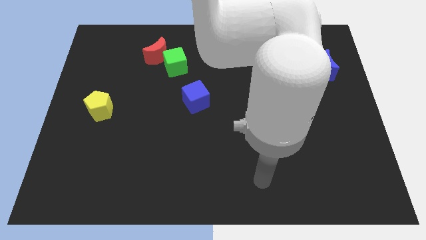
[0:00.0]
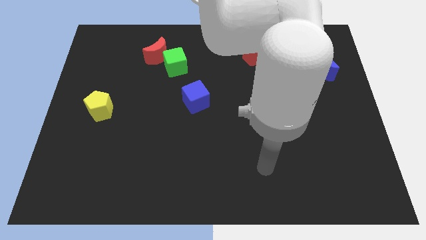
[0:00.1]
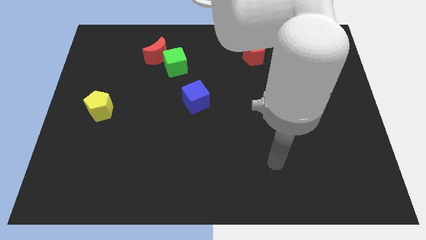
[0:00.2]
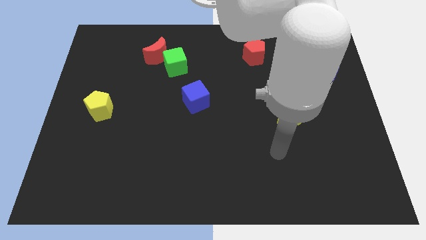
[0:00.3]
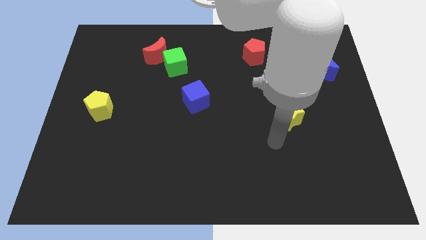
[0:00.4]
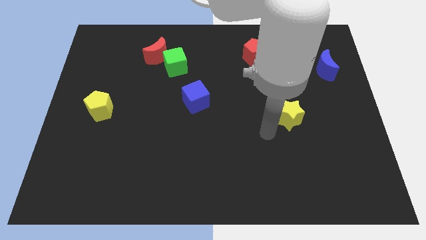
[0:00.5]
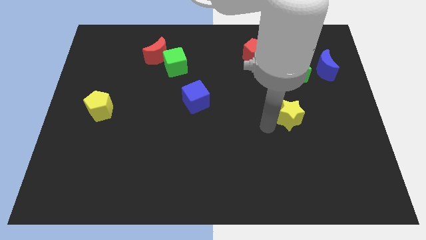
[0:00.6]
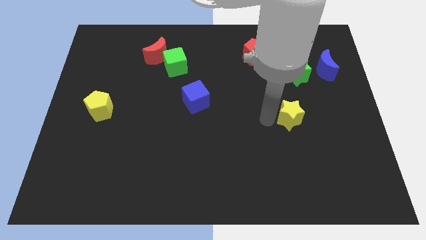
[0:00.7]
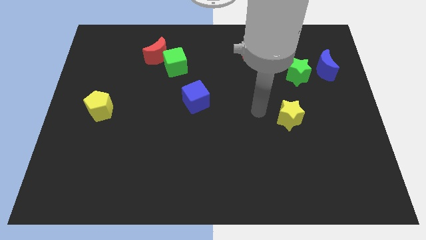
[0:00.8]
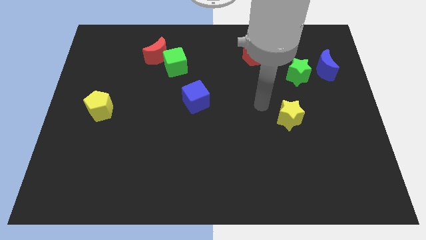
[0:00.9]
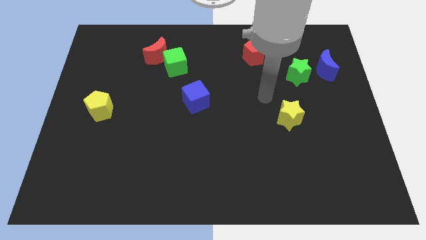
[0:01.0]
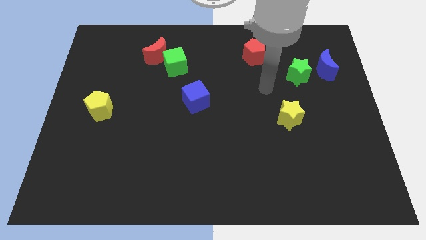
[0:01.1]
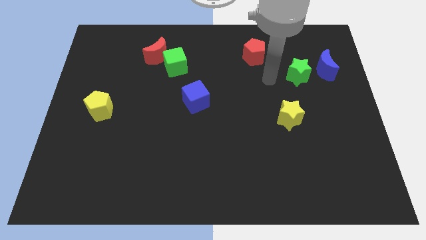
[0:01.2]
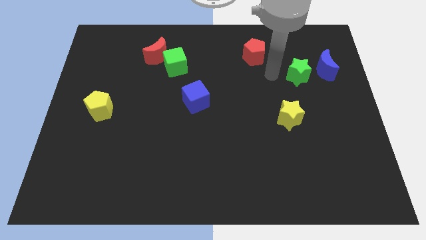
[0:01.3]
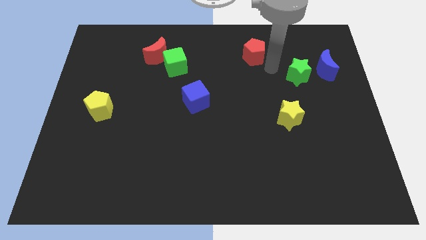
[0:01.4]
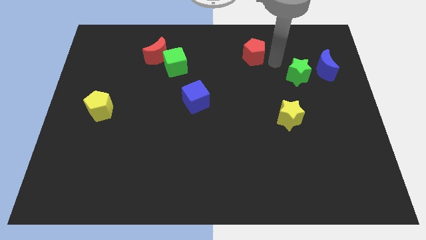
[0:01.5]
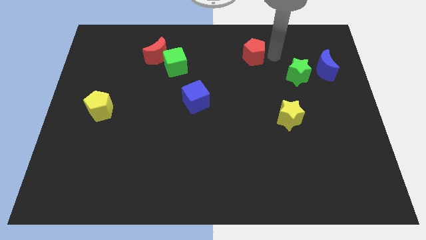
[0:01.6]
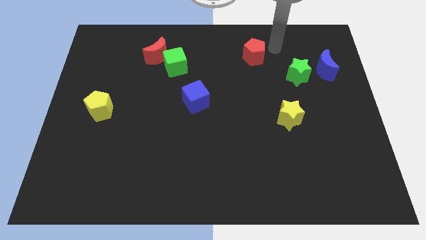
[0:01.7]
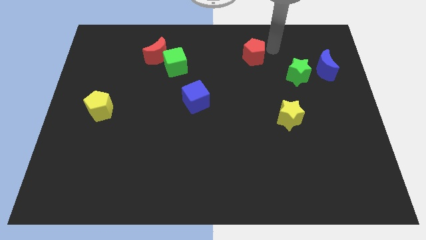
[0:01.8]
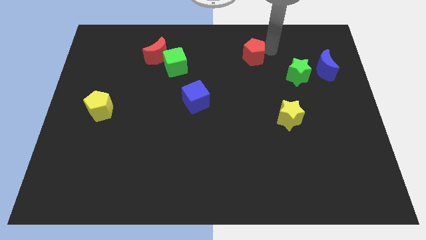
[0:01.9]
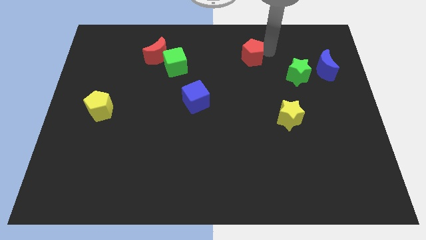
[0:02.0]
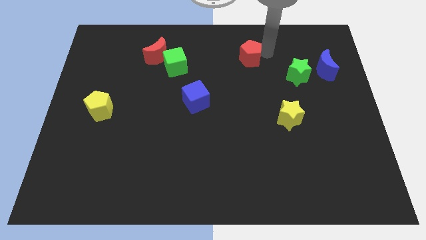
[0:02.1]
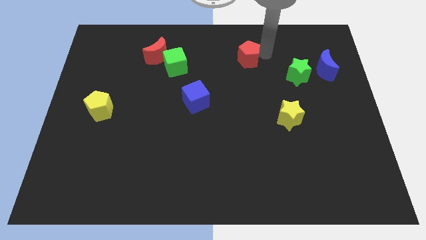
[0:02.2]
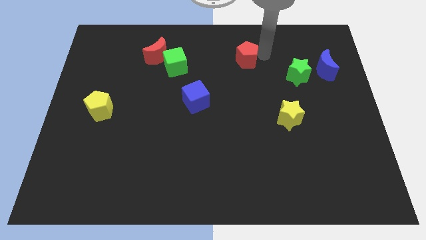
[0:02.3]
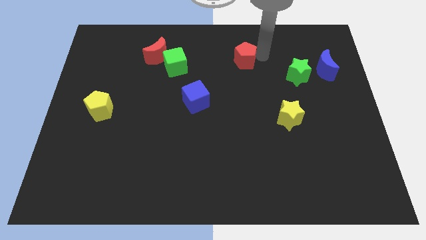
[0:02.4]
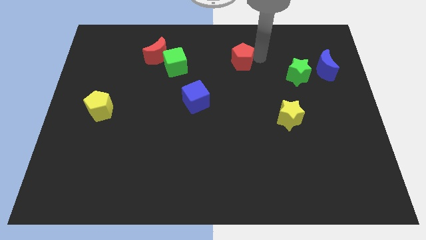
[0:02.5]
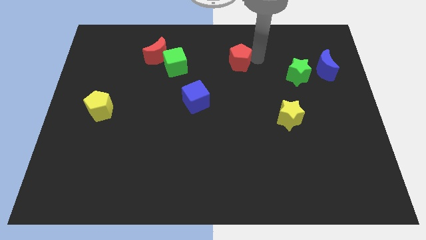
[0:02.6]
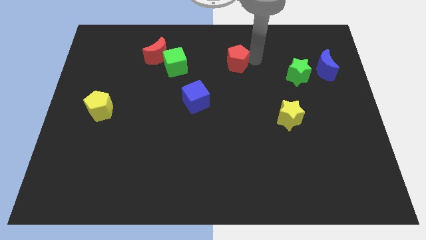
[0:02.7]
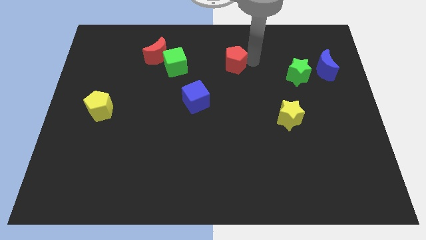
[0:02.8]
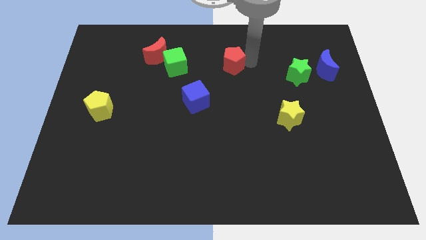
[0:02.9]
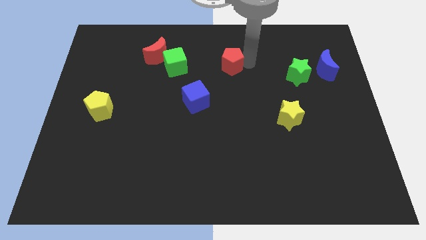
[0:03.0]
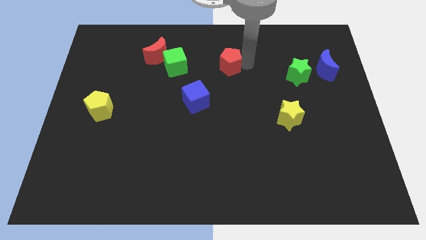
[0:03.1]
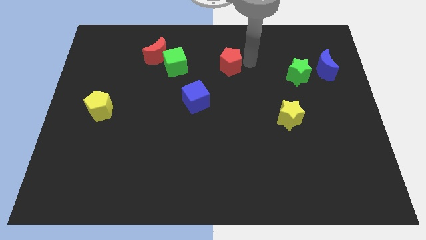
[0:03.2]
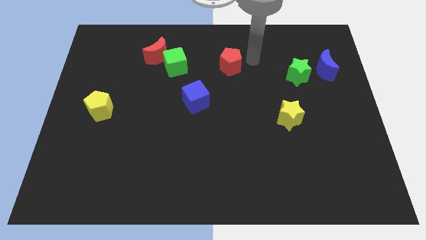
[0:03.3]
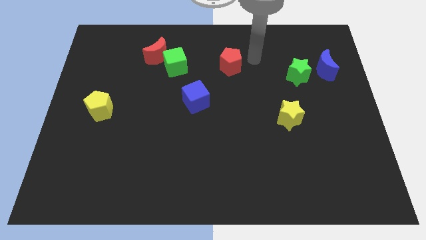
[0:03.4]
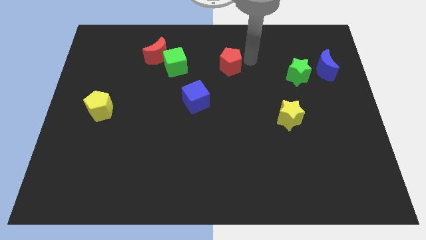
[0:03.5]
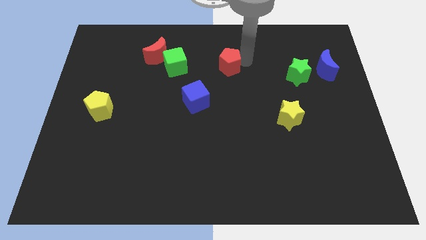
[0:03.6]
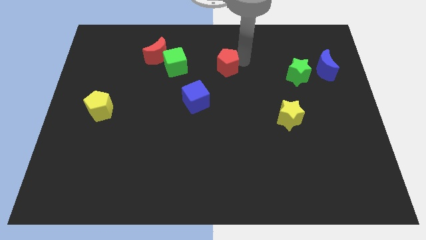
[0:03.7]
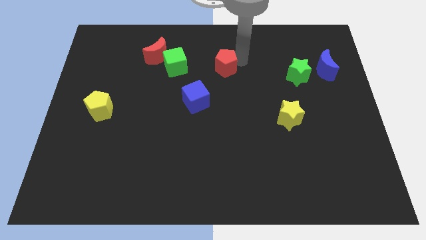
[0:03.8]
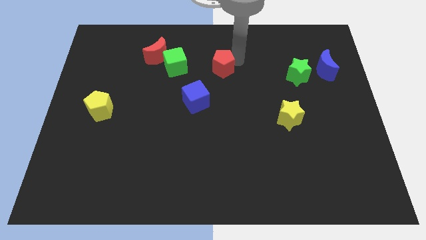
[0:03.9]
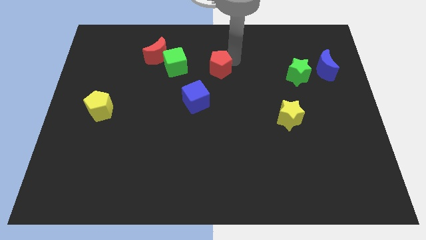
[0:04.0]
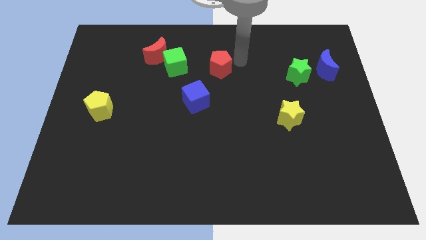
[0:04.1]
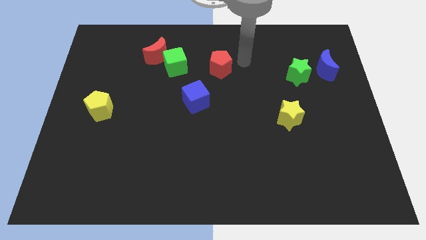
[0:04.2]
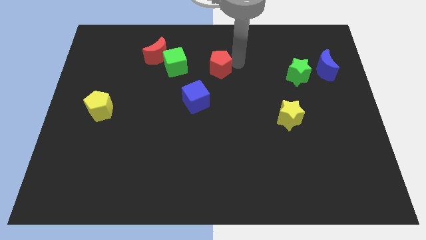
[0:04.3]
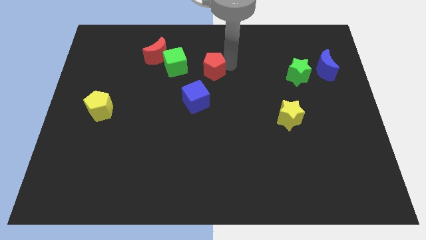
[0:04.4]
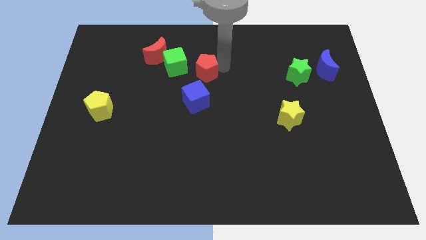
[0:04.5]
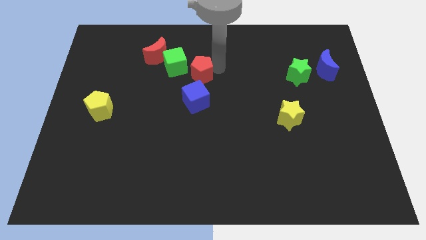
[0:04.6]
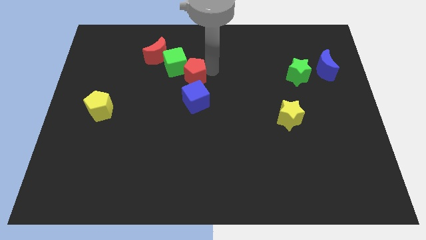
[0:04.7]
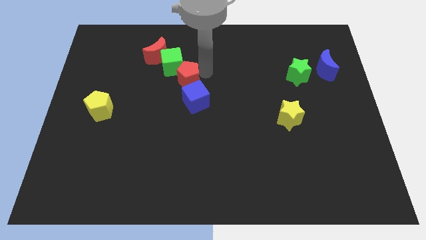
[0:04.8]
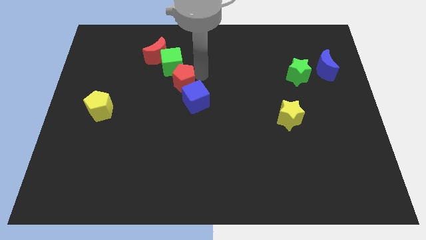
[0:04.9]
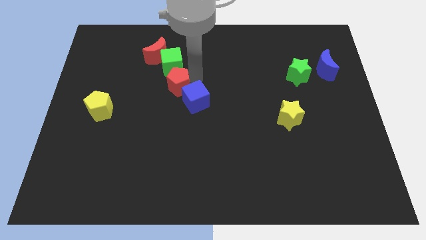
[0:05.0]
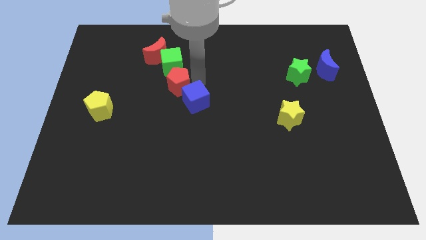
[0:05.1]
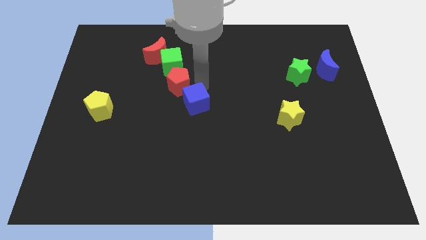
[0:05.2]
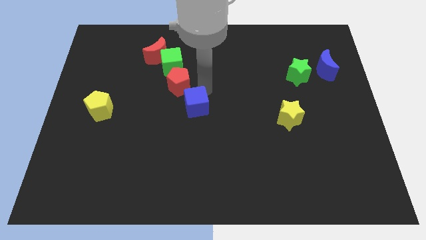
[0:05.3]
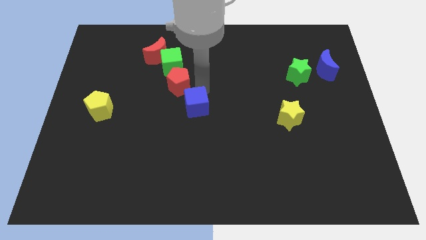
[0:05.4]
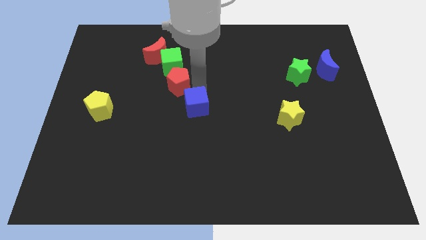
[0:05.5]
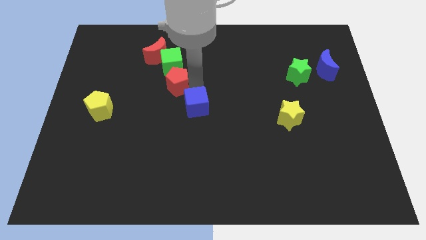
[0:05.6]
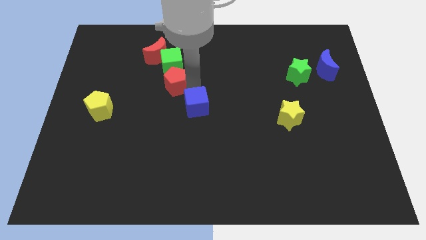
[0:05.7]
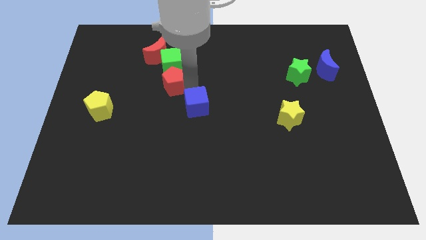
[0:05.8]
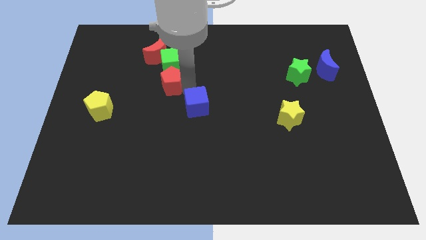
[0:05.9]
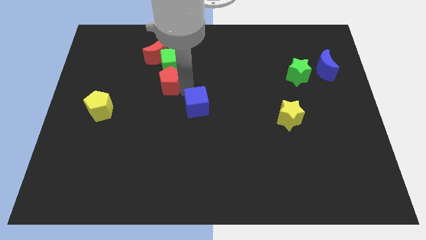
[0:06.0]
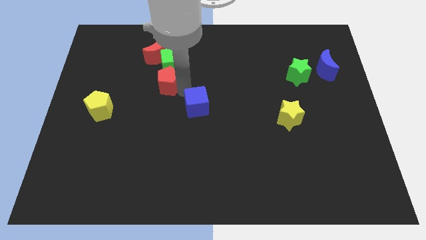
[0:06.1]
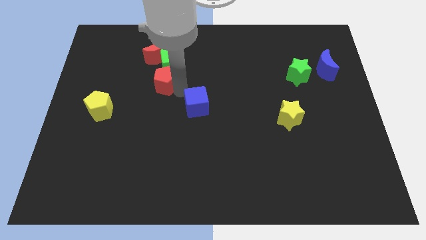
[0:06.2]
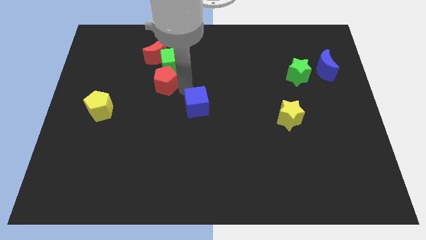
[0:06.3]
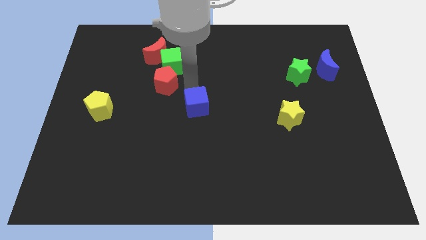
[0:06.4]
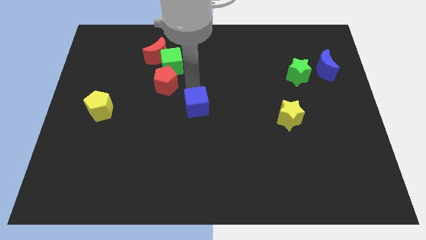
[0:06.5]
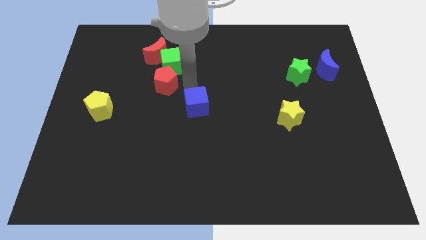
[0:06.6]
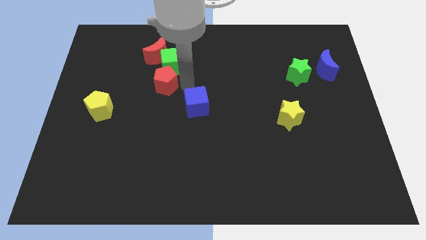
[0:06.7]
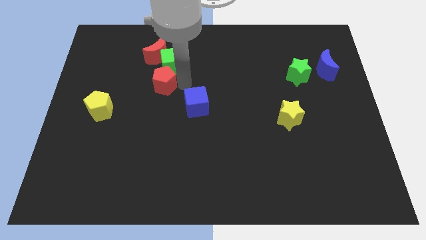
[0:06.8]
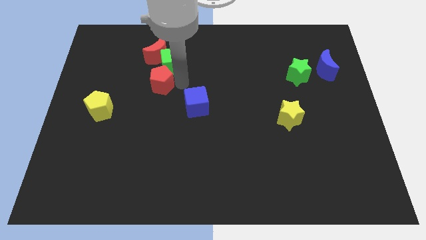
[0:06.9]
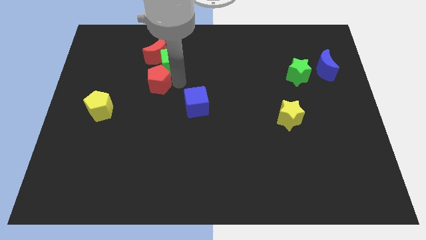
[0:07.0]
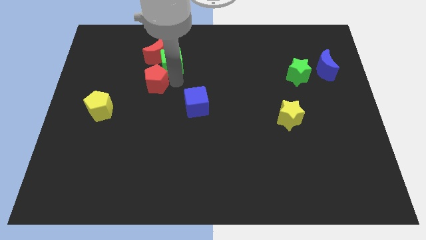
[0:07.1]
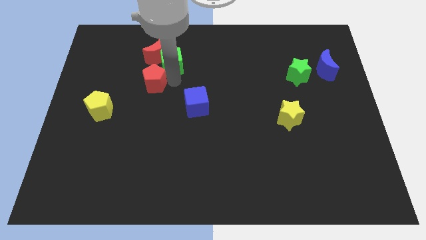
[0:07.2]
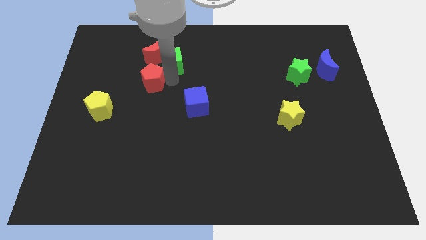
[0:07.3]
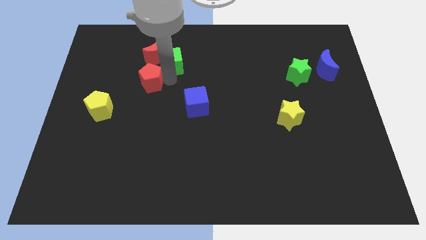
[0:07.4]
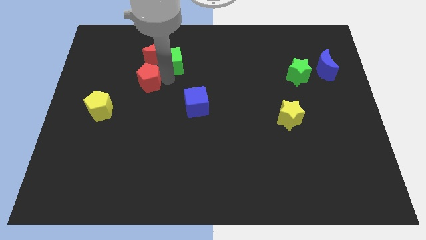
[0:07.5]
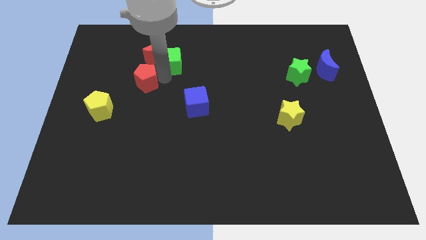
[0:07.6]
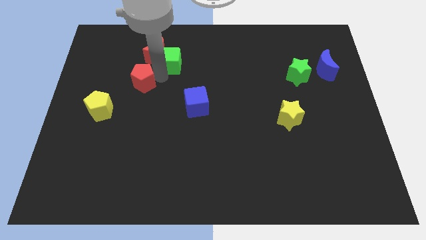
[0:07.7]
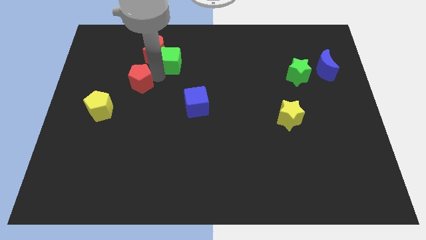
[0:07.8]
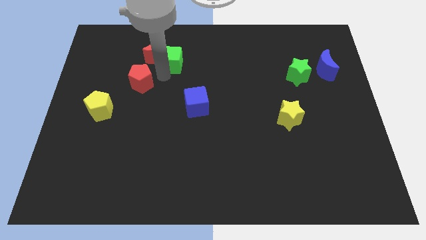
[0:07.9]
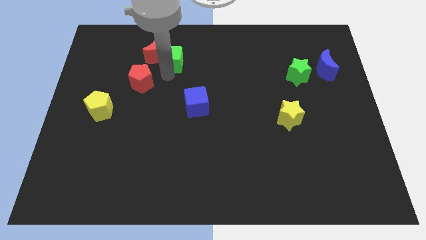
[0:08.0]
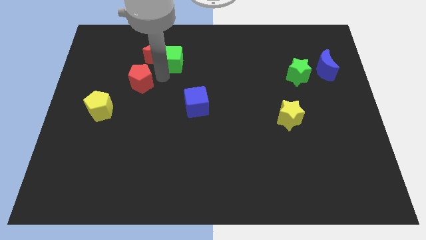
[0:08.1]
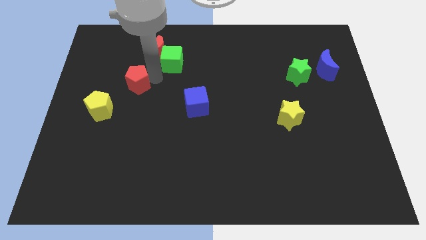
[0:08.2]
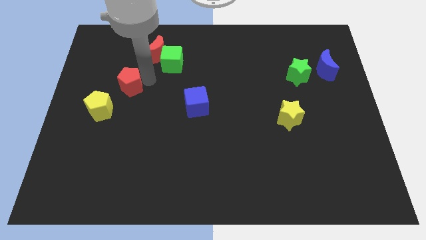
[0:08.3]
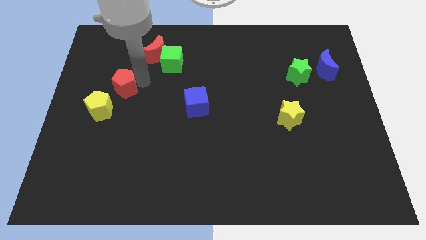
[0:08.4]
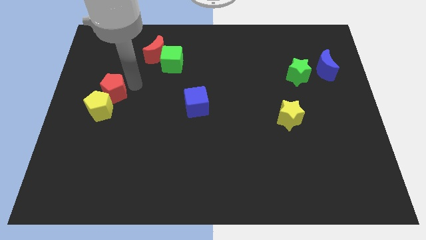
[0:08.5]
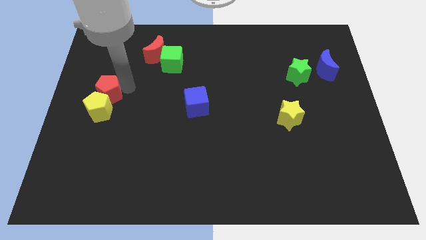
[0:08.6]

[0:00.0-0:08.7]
slide the red pentagon to the left side
